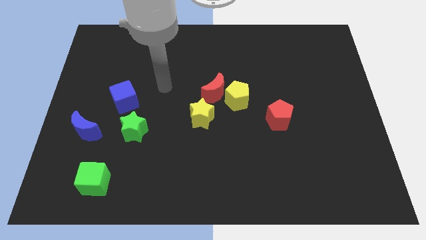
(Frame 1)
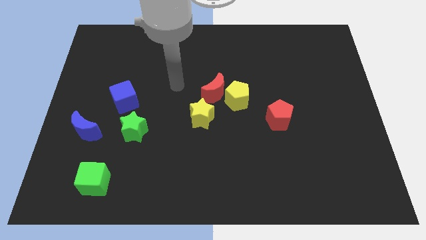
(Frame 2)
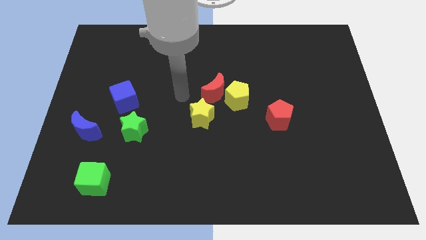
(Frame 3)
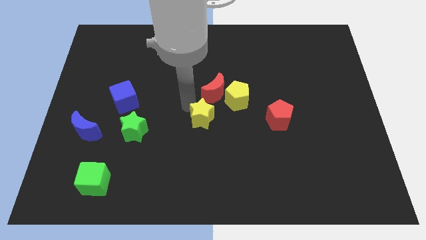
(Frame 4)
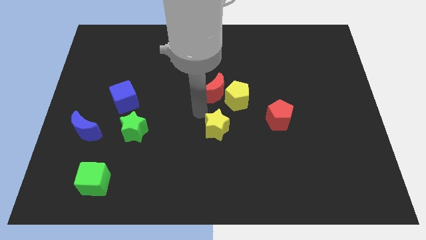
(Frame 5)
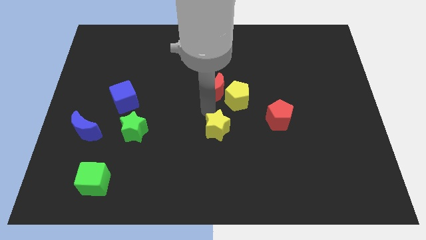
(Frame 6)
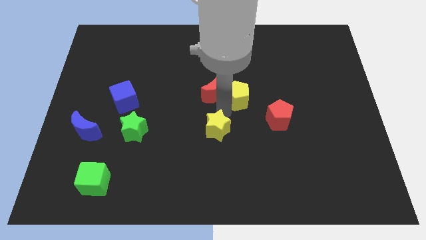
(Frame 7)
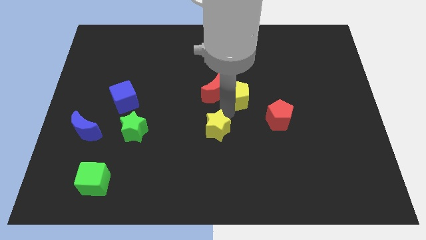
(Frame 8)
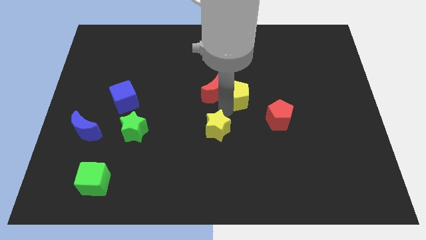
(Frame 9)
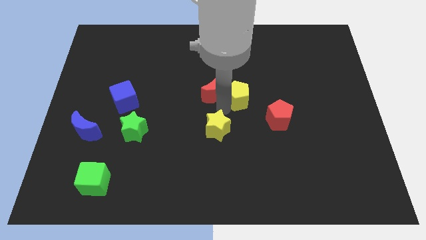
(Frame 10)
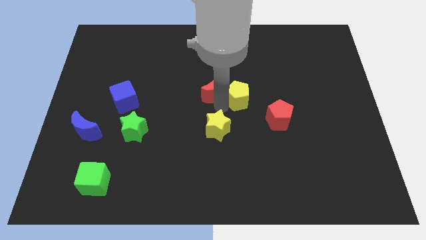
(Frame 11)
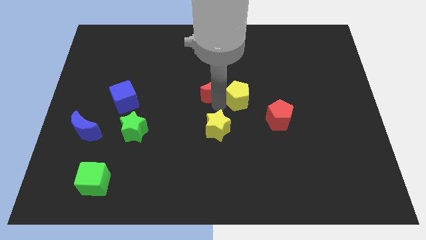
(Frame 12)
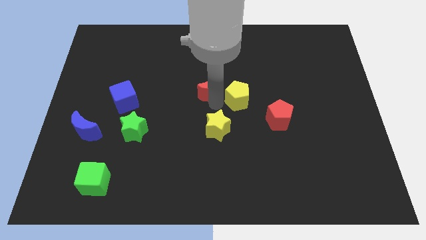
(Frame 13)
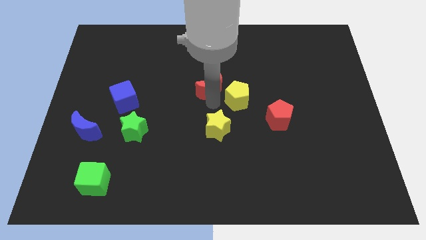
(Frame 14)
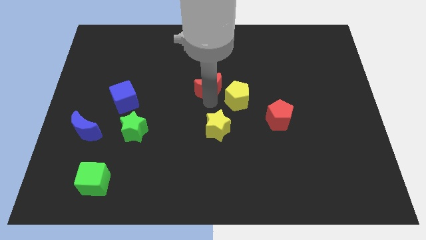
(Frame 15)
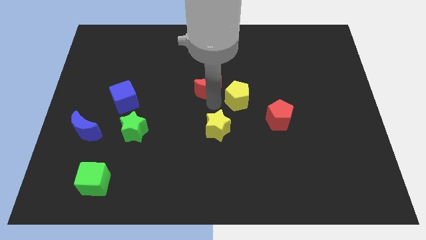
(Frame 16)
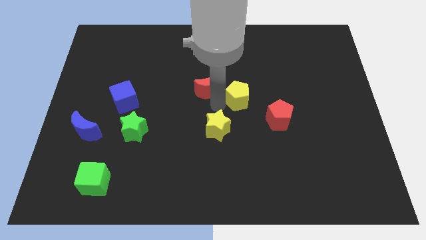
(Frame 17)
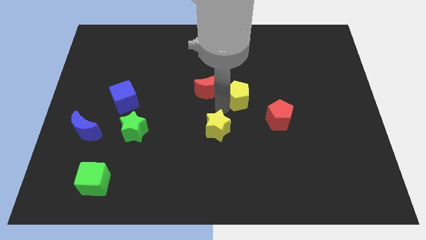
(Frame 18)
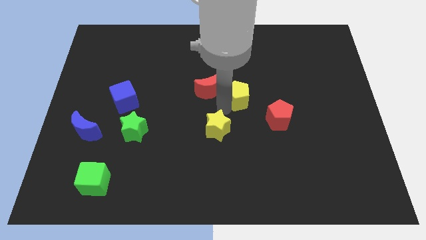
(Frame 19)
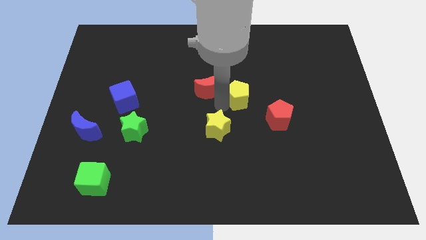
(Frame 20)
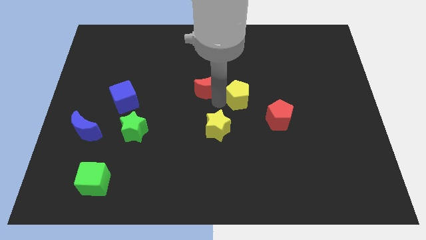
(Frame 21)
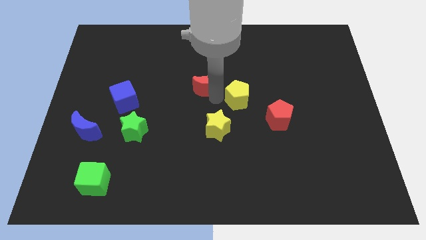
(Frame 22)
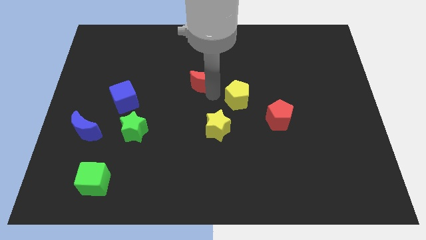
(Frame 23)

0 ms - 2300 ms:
pull the red moon apart from the yellow pentagon and yellow star

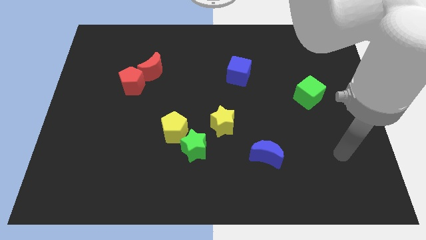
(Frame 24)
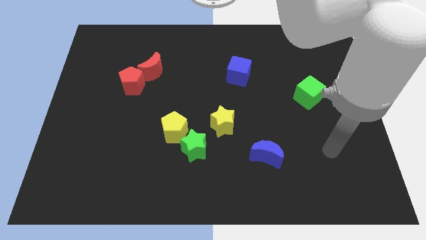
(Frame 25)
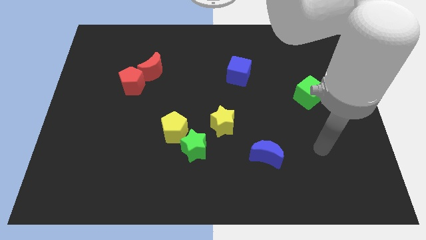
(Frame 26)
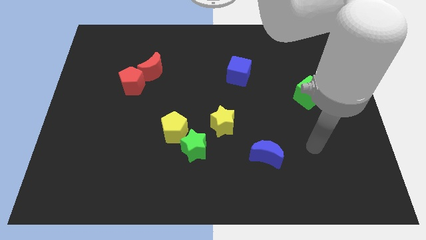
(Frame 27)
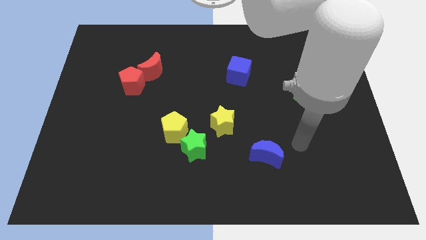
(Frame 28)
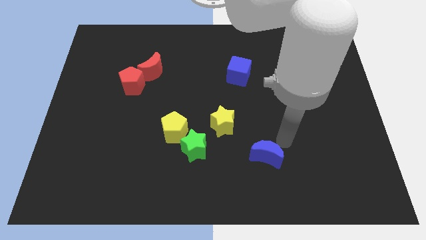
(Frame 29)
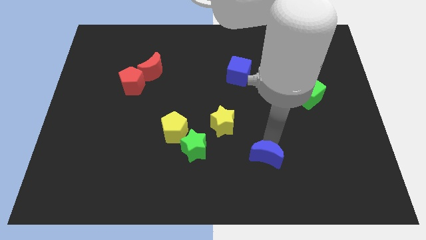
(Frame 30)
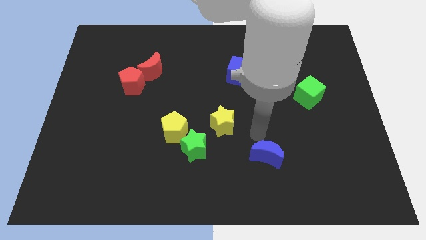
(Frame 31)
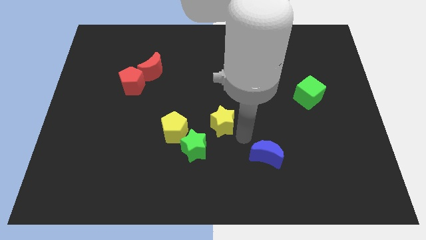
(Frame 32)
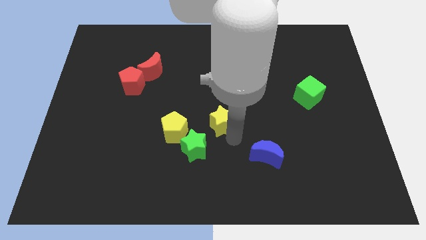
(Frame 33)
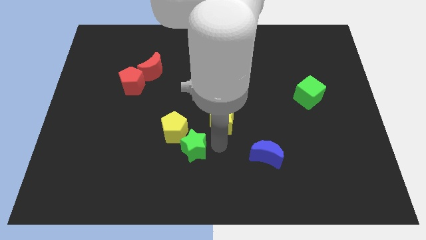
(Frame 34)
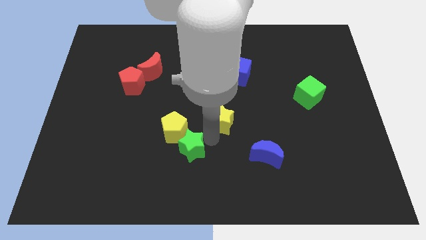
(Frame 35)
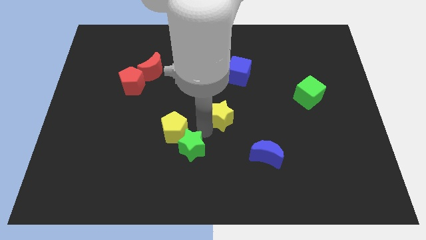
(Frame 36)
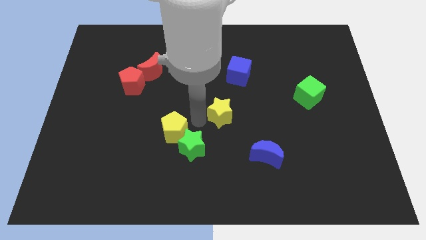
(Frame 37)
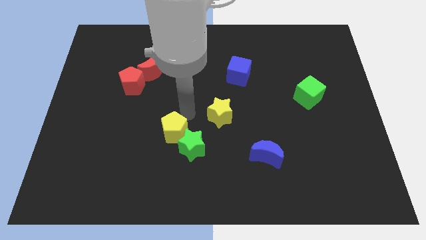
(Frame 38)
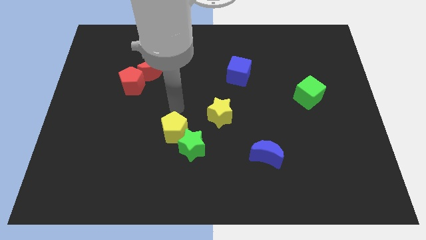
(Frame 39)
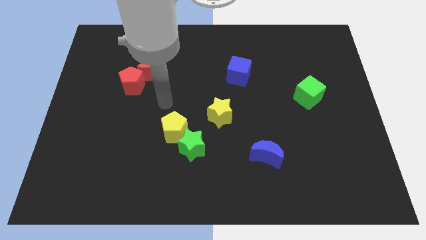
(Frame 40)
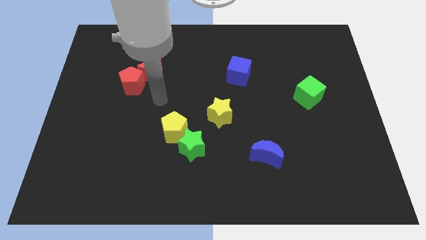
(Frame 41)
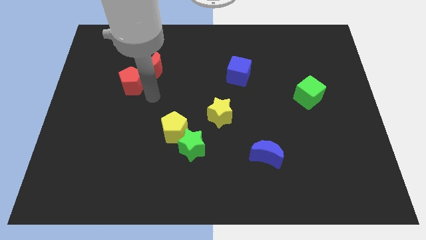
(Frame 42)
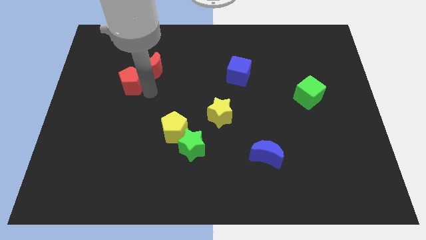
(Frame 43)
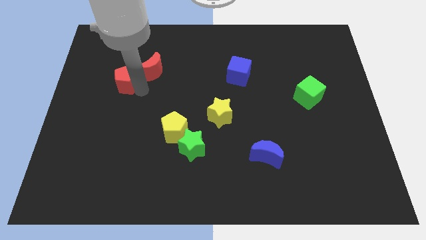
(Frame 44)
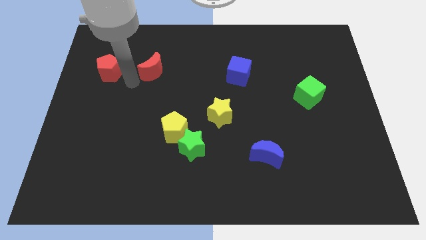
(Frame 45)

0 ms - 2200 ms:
pull the red moon apart from the red pentagon

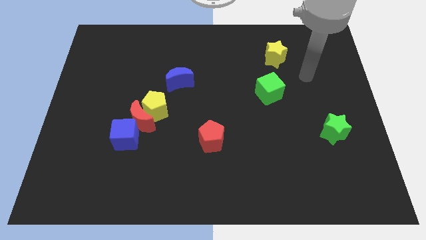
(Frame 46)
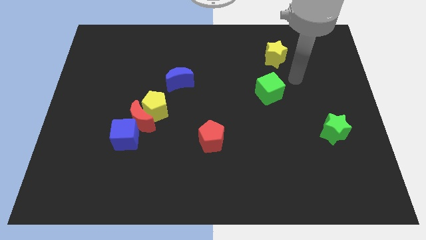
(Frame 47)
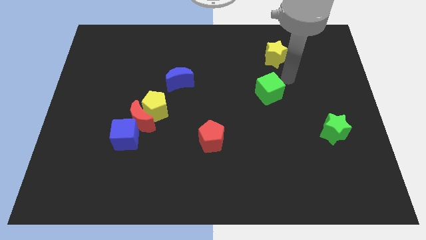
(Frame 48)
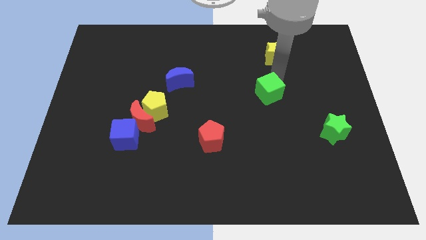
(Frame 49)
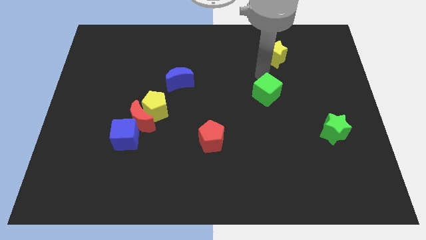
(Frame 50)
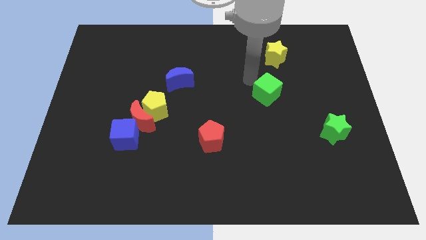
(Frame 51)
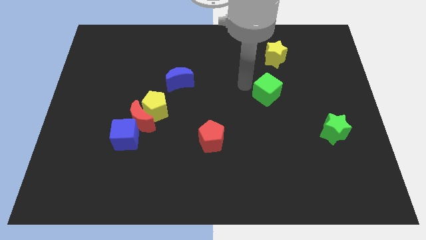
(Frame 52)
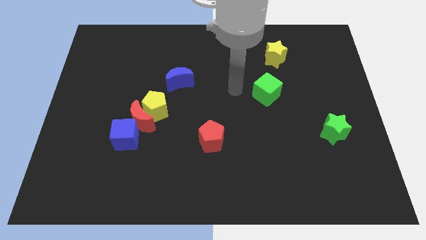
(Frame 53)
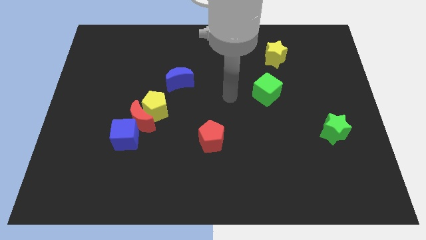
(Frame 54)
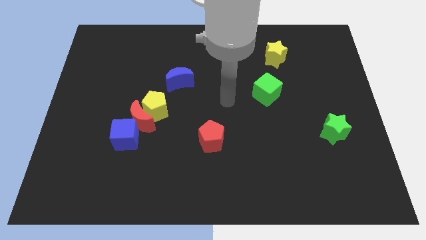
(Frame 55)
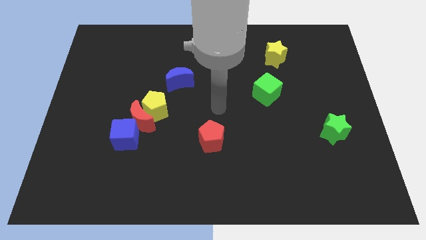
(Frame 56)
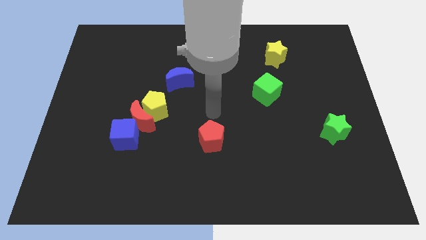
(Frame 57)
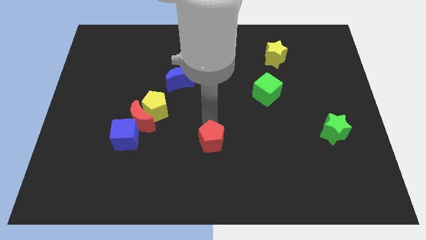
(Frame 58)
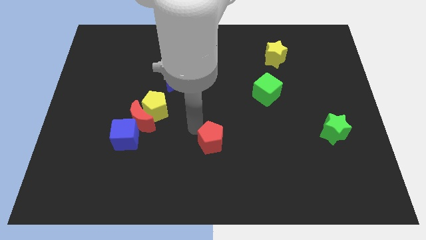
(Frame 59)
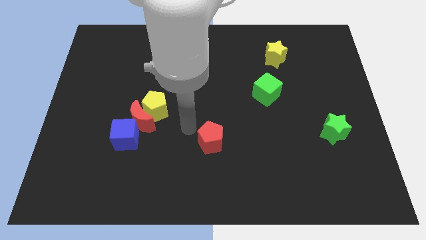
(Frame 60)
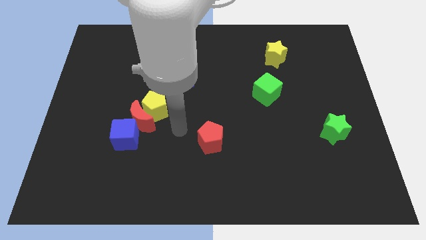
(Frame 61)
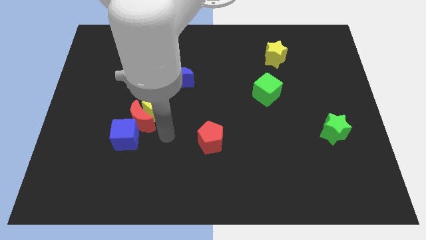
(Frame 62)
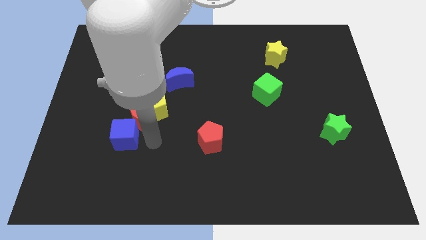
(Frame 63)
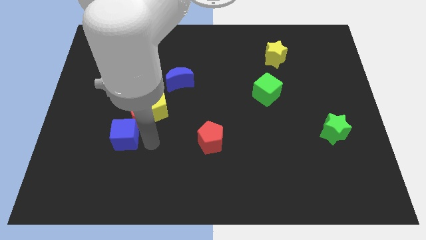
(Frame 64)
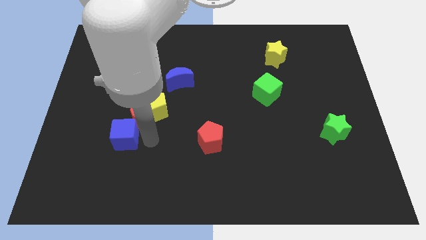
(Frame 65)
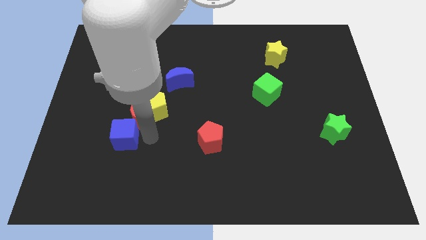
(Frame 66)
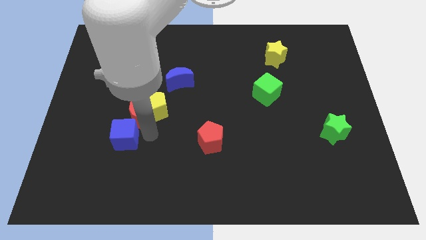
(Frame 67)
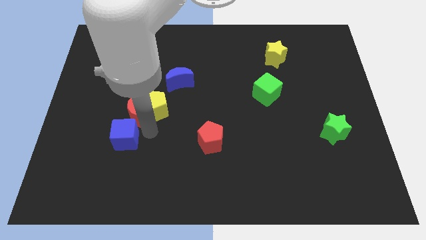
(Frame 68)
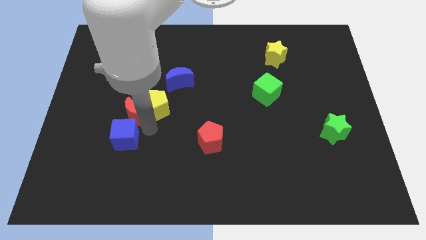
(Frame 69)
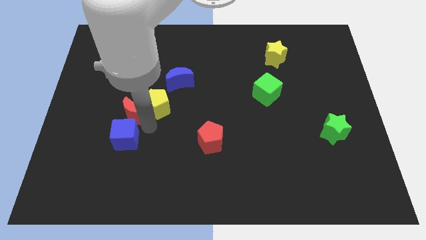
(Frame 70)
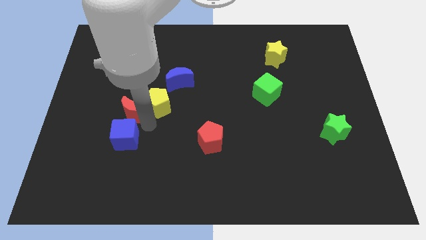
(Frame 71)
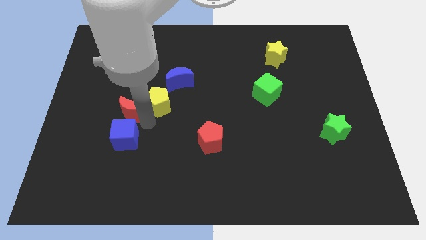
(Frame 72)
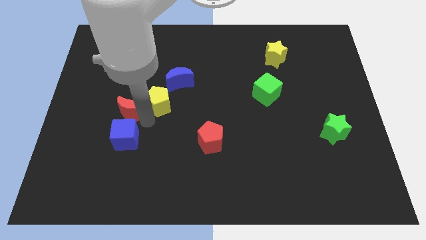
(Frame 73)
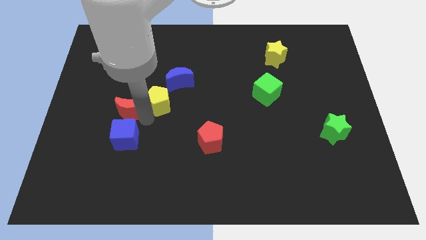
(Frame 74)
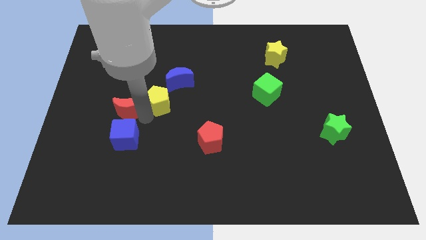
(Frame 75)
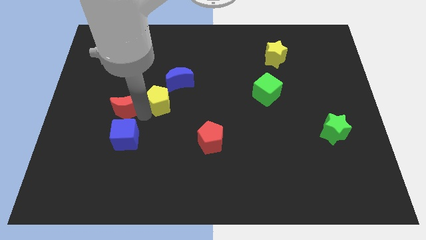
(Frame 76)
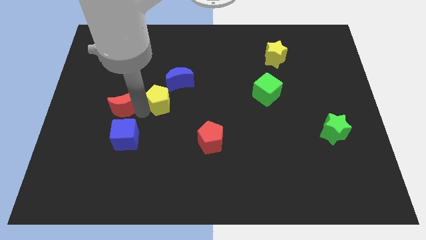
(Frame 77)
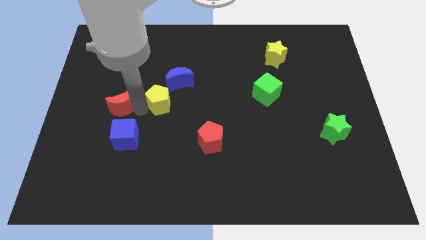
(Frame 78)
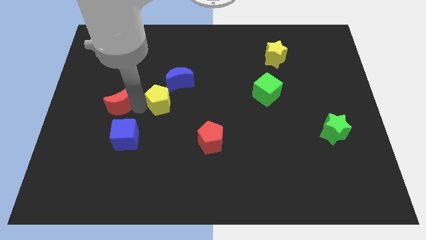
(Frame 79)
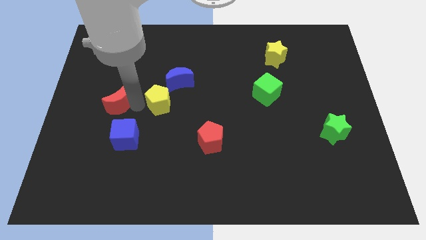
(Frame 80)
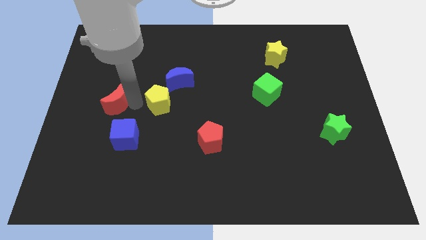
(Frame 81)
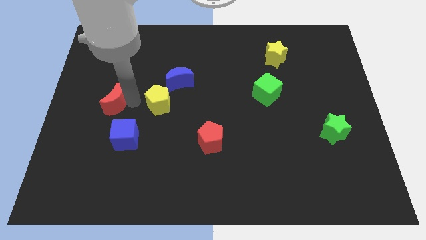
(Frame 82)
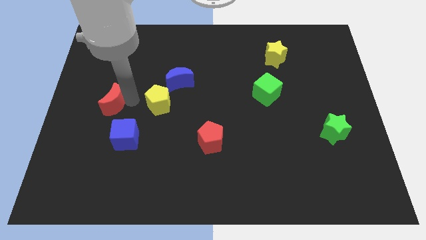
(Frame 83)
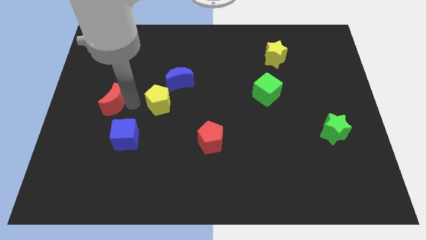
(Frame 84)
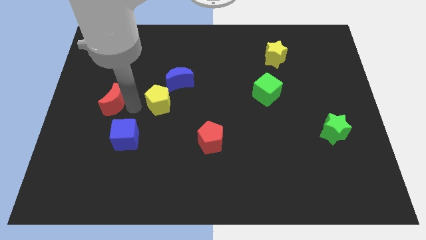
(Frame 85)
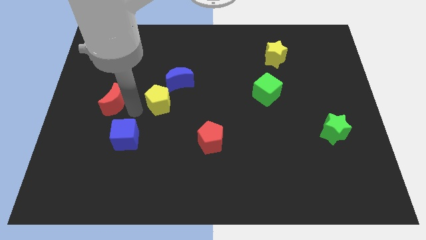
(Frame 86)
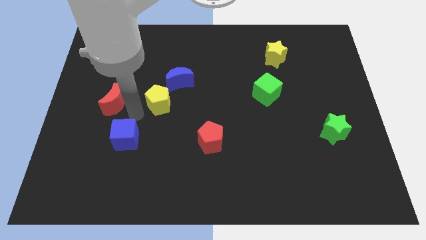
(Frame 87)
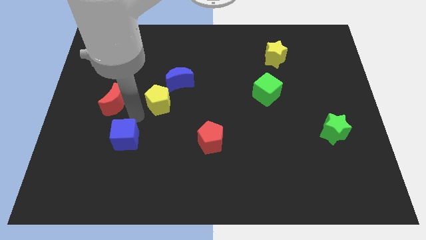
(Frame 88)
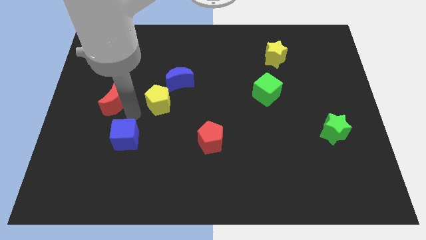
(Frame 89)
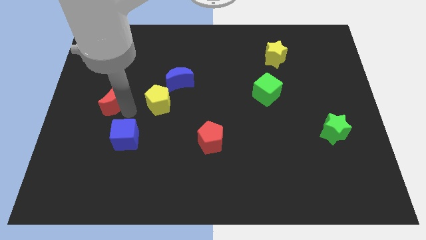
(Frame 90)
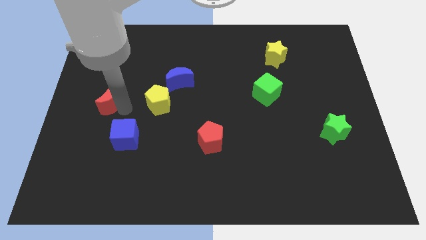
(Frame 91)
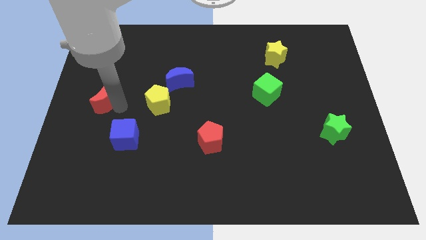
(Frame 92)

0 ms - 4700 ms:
move the red moon away from the yellow pentagon and blue cube
